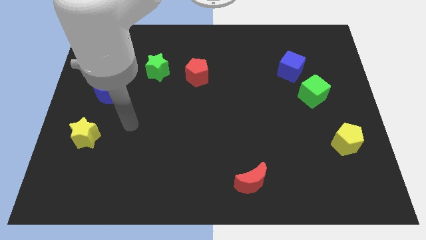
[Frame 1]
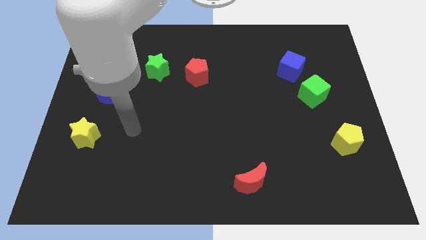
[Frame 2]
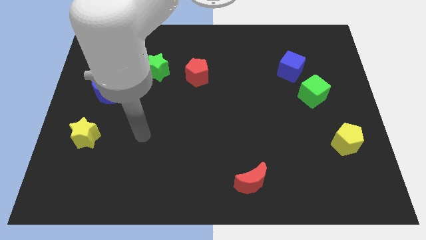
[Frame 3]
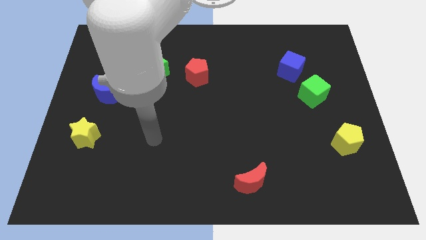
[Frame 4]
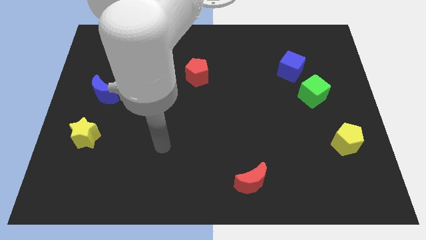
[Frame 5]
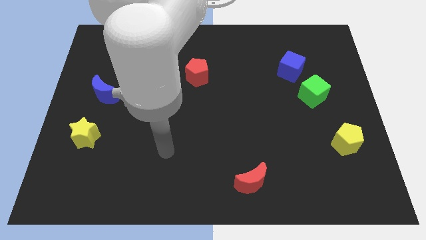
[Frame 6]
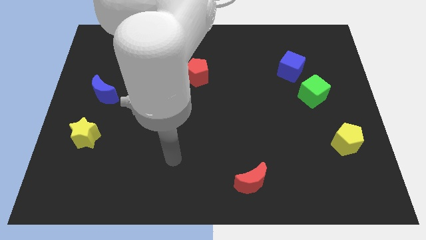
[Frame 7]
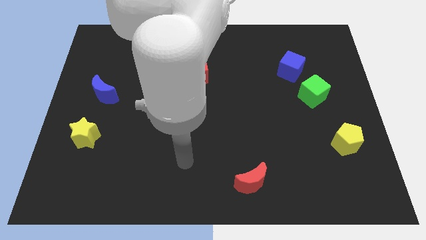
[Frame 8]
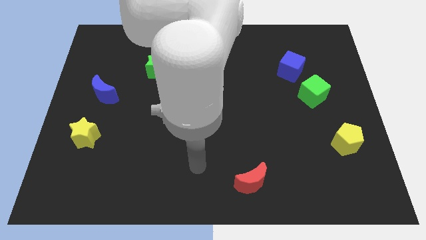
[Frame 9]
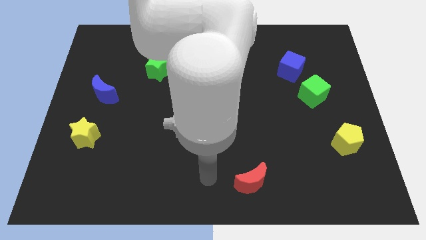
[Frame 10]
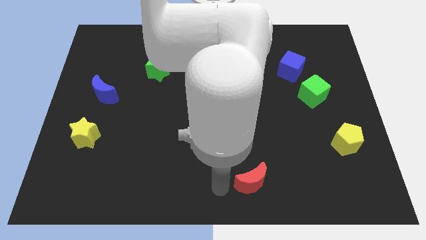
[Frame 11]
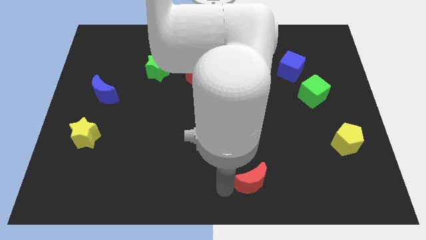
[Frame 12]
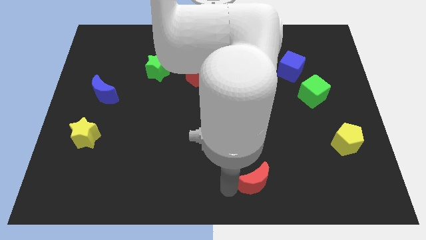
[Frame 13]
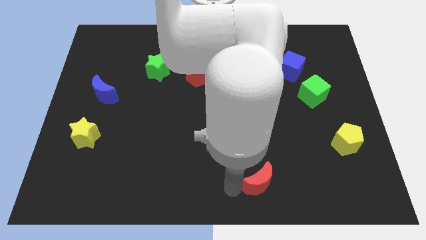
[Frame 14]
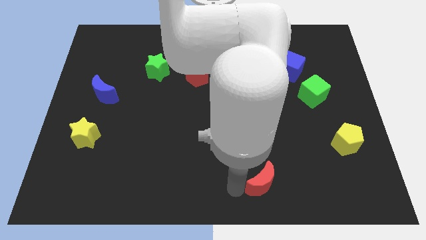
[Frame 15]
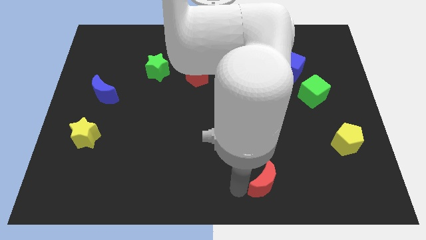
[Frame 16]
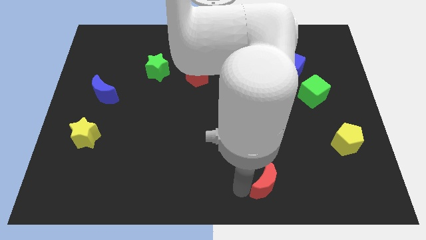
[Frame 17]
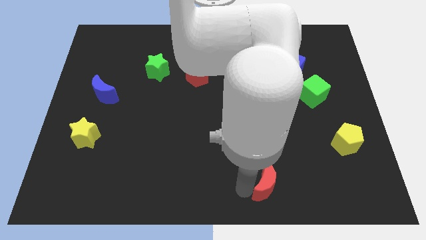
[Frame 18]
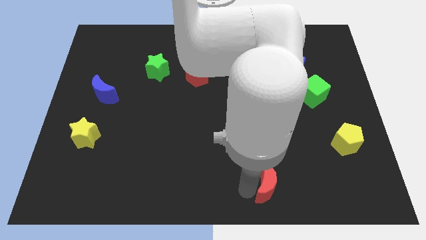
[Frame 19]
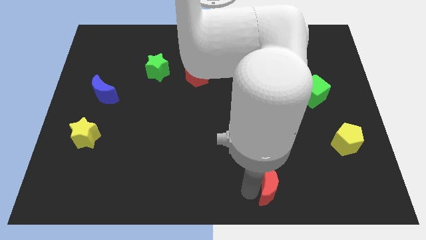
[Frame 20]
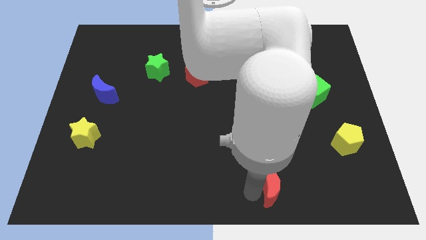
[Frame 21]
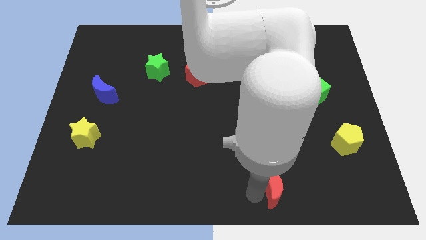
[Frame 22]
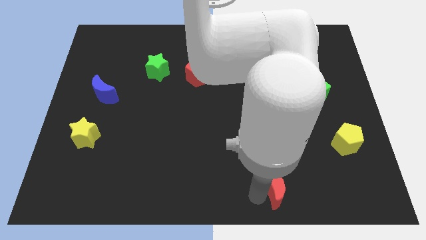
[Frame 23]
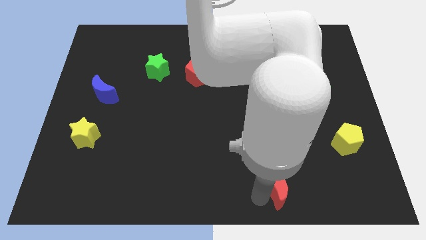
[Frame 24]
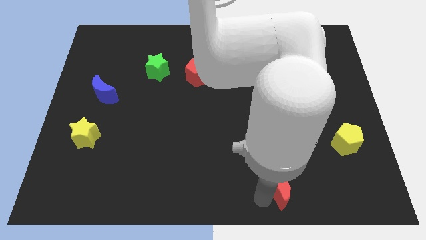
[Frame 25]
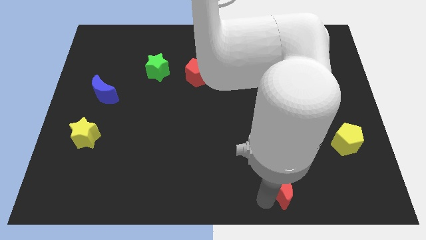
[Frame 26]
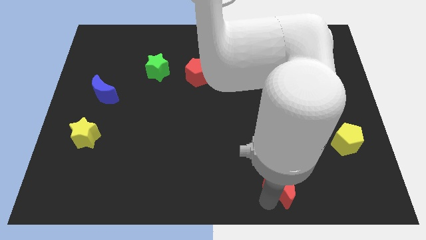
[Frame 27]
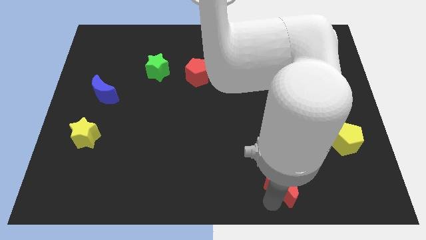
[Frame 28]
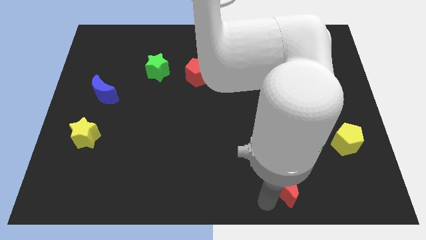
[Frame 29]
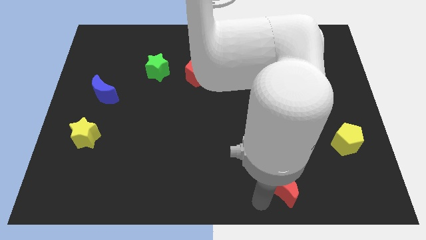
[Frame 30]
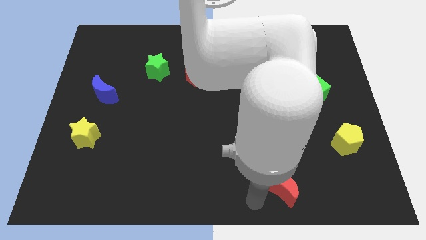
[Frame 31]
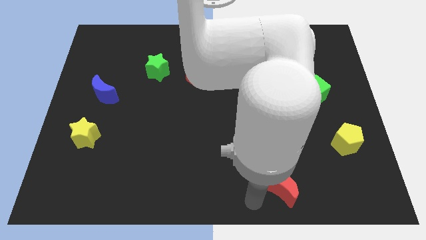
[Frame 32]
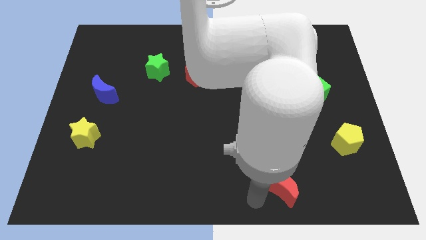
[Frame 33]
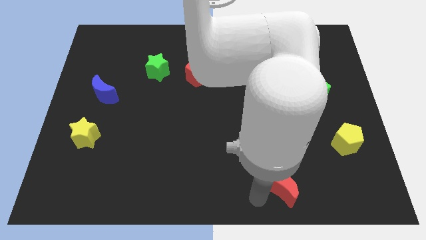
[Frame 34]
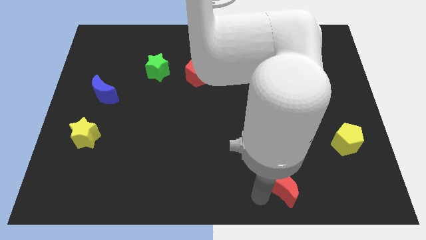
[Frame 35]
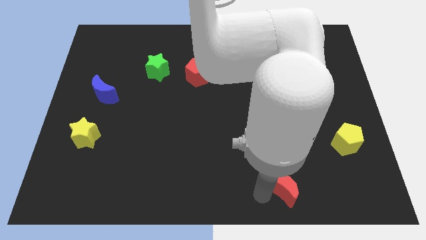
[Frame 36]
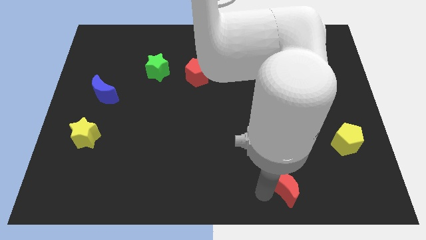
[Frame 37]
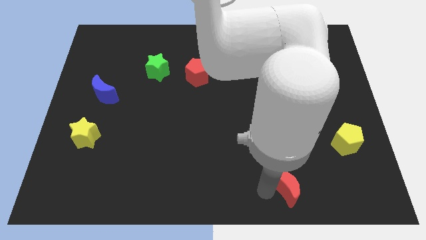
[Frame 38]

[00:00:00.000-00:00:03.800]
slide the red moon somewhat right

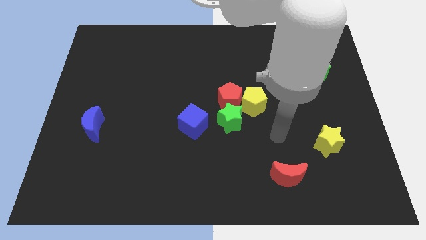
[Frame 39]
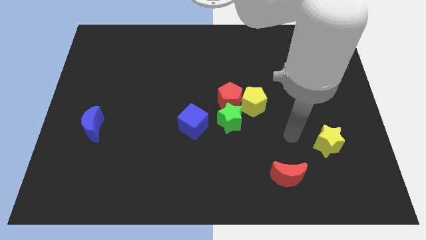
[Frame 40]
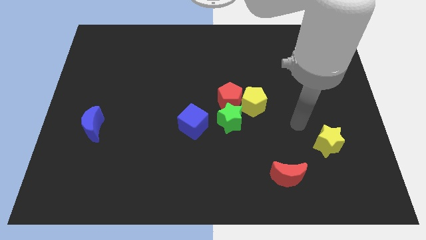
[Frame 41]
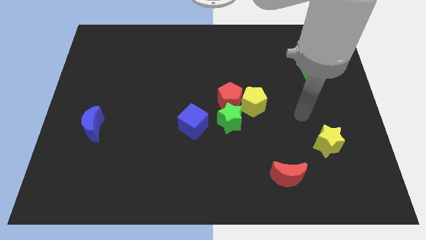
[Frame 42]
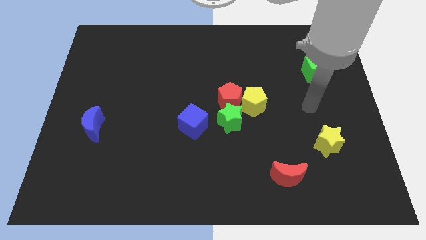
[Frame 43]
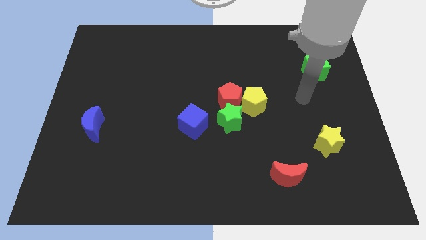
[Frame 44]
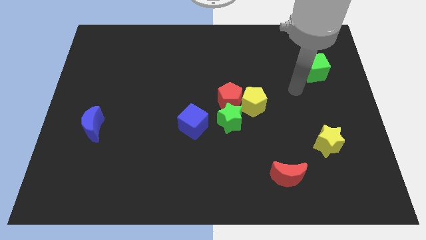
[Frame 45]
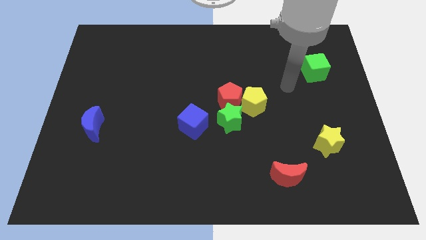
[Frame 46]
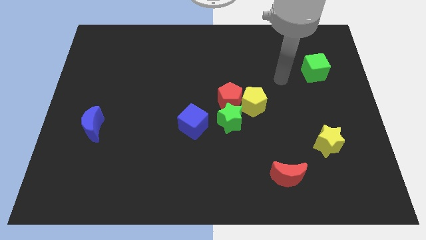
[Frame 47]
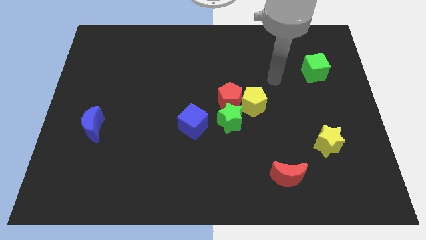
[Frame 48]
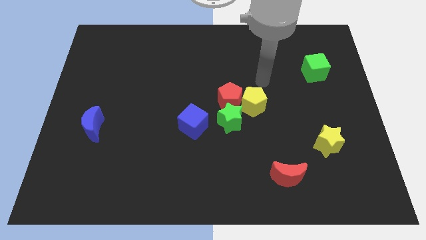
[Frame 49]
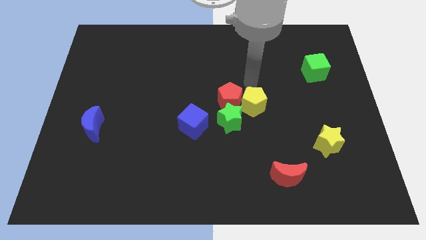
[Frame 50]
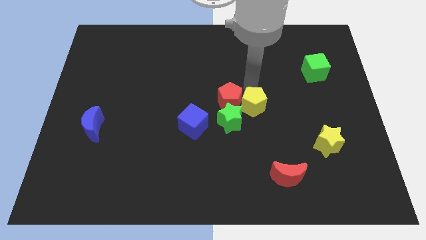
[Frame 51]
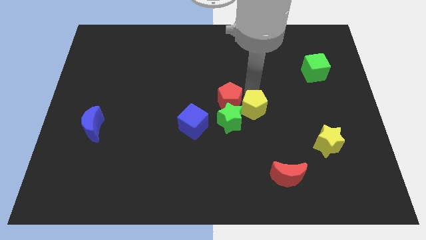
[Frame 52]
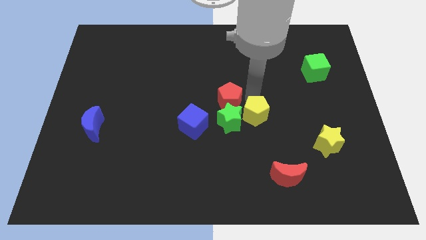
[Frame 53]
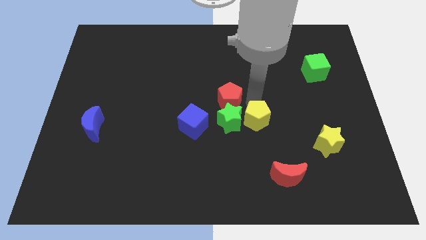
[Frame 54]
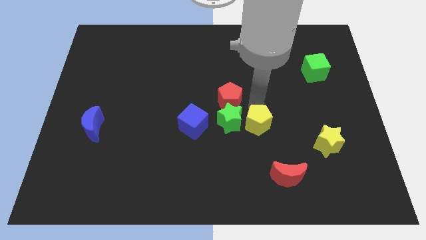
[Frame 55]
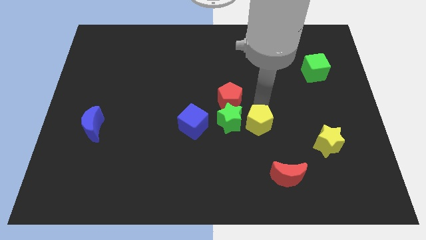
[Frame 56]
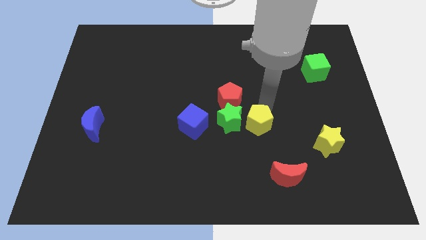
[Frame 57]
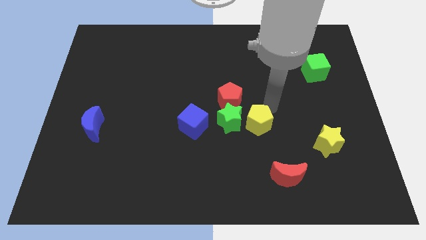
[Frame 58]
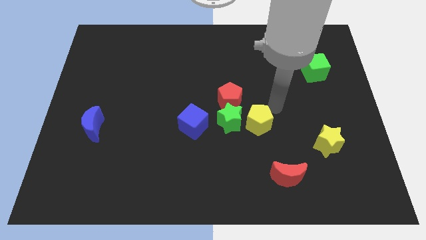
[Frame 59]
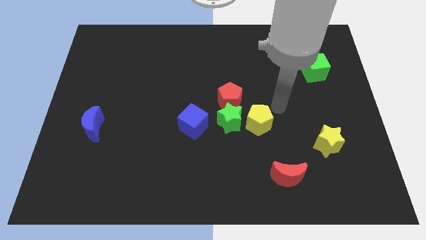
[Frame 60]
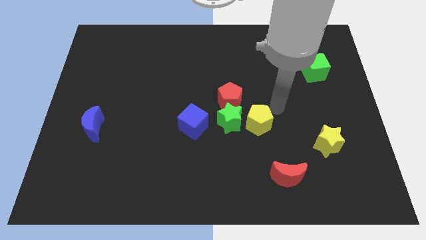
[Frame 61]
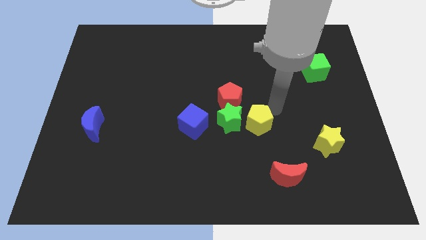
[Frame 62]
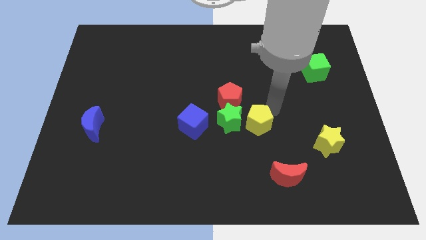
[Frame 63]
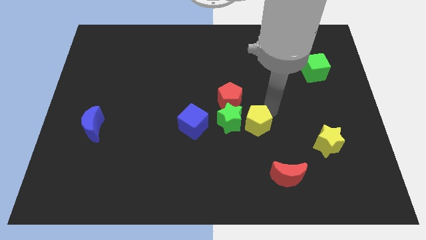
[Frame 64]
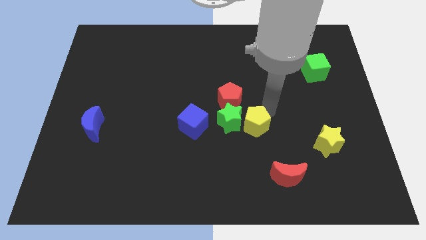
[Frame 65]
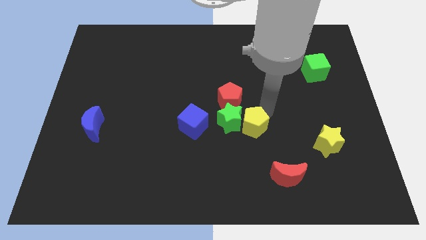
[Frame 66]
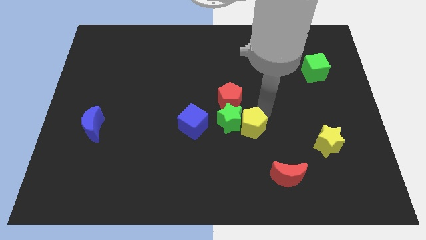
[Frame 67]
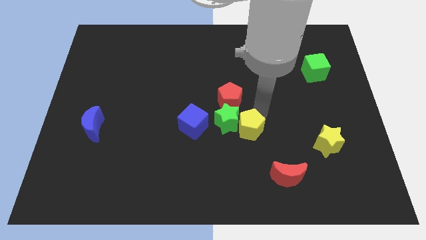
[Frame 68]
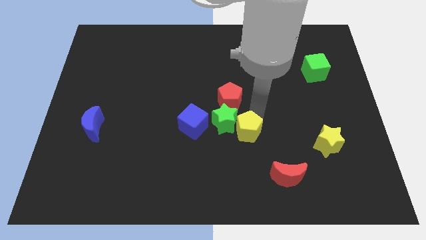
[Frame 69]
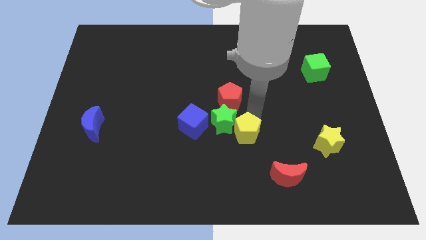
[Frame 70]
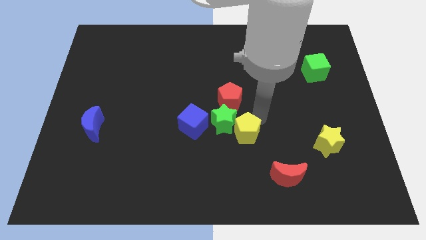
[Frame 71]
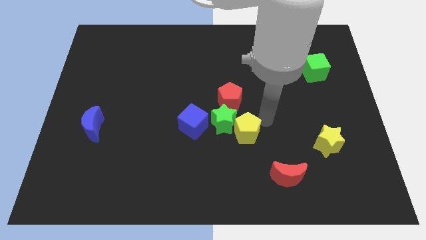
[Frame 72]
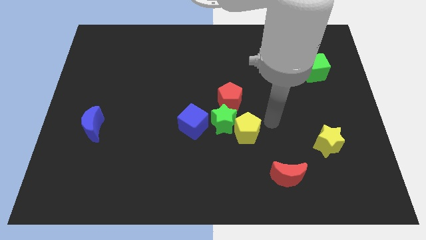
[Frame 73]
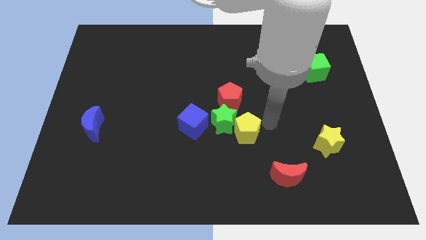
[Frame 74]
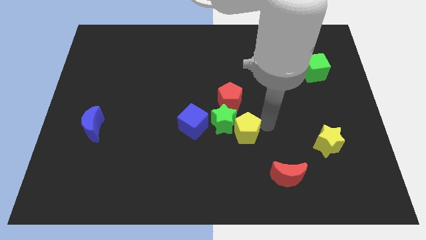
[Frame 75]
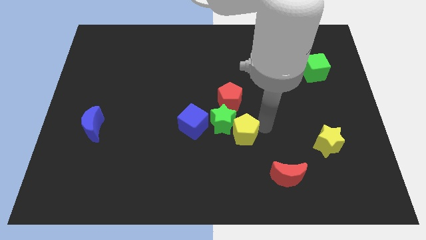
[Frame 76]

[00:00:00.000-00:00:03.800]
push the yellow pentagon somewhat diagonally downwards and left
